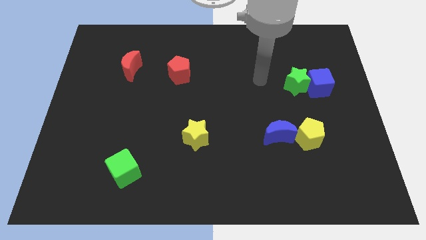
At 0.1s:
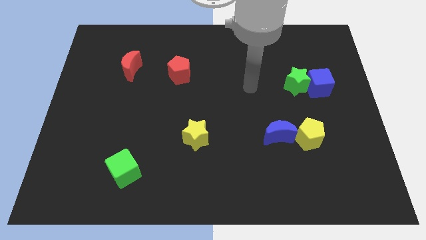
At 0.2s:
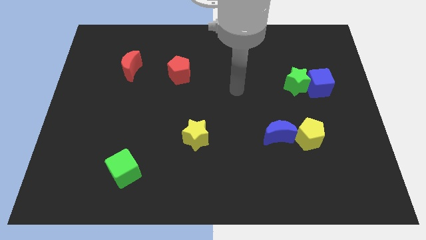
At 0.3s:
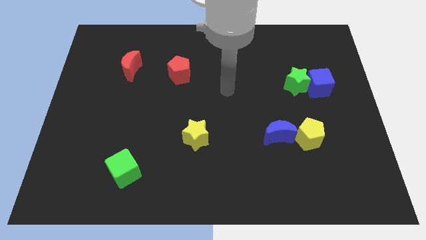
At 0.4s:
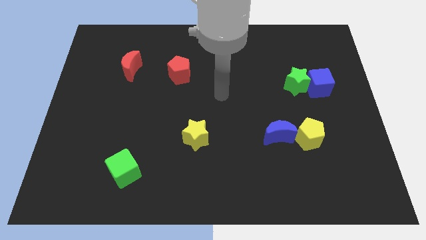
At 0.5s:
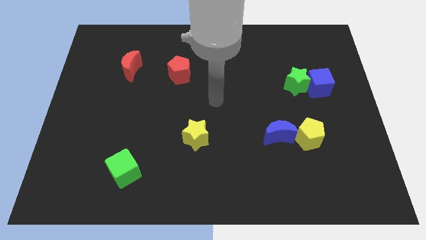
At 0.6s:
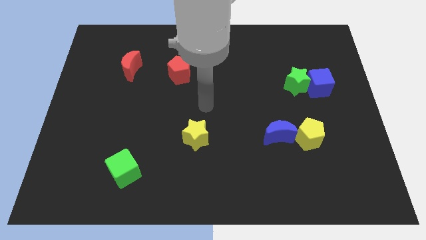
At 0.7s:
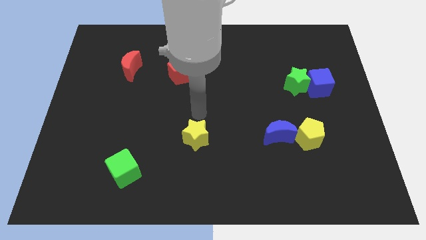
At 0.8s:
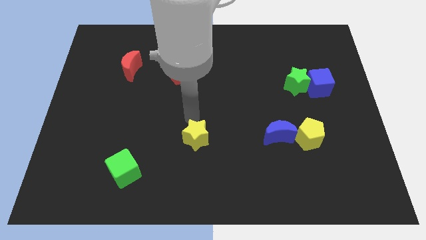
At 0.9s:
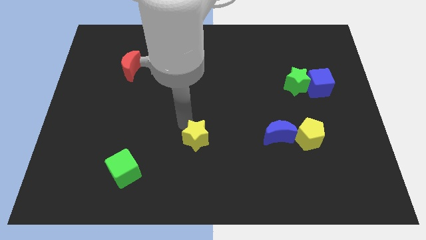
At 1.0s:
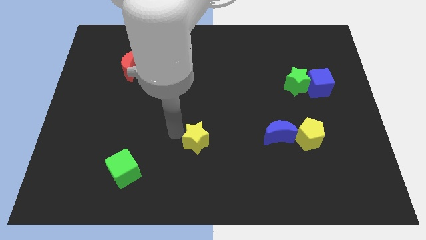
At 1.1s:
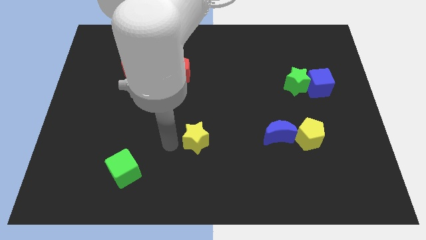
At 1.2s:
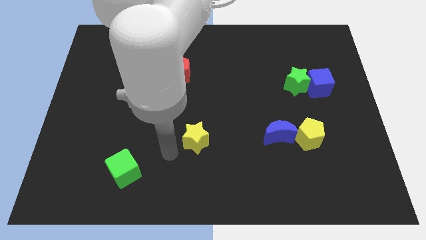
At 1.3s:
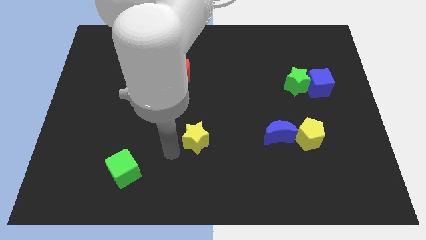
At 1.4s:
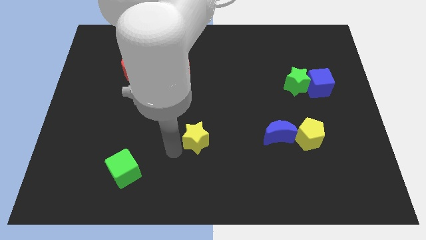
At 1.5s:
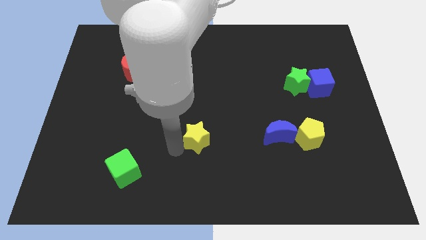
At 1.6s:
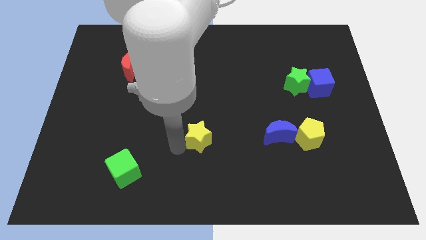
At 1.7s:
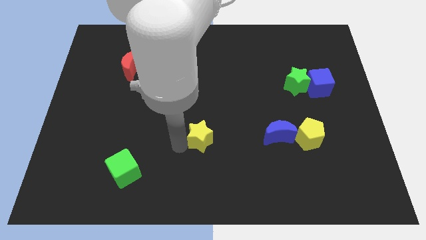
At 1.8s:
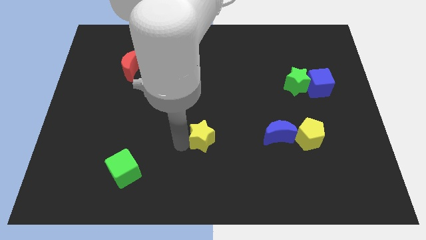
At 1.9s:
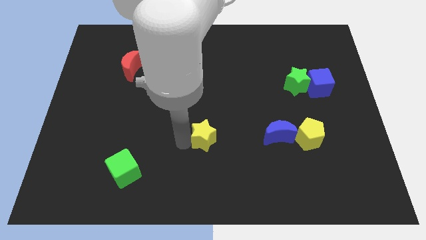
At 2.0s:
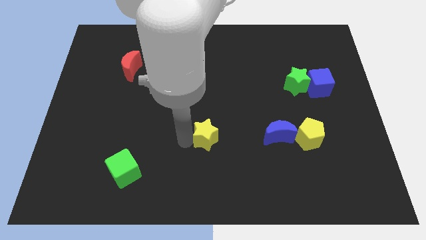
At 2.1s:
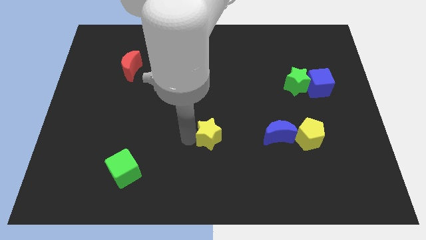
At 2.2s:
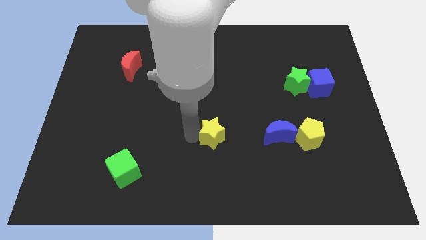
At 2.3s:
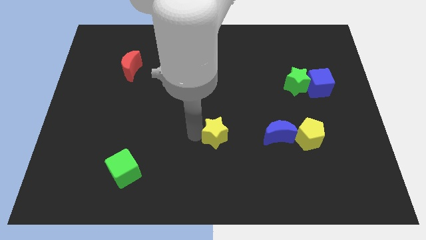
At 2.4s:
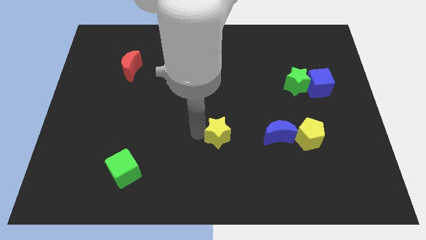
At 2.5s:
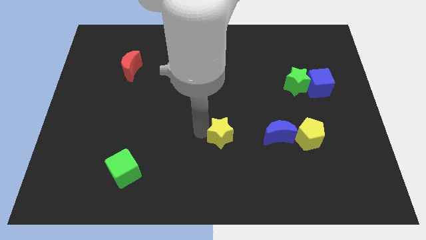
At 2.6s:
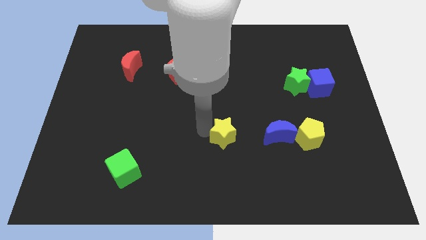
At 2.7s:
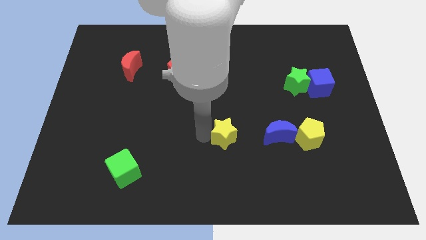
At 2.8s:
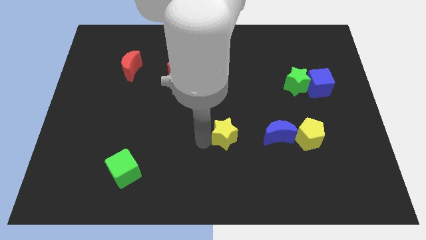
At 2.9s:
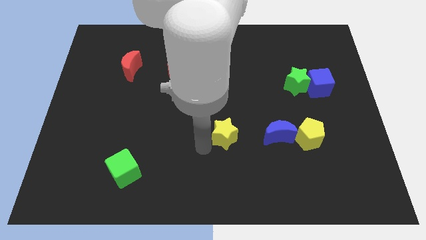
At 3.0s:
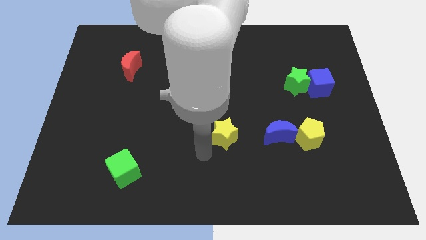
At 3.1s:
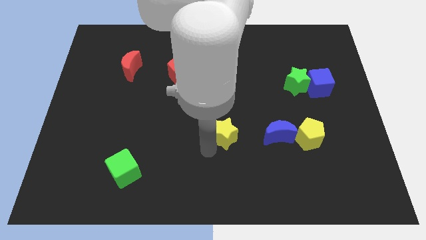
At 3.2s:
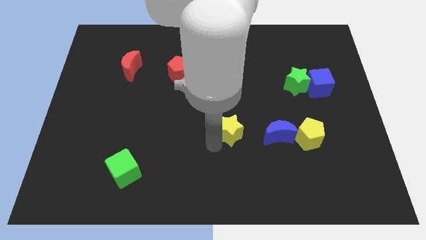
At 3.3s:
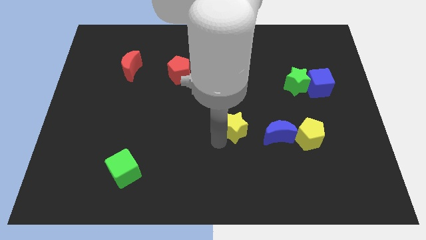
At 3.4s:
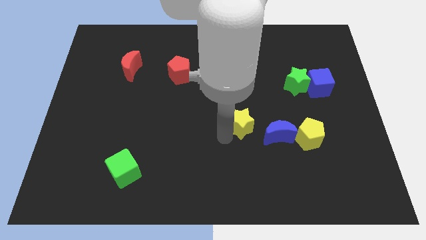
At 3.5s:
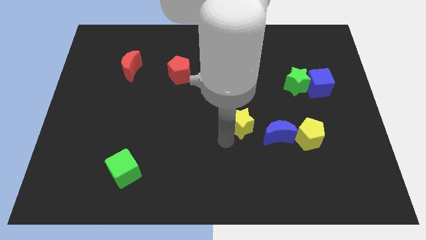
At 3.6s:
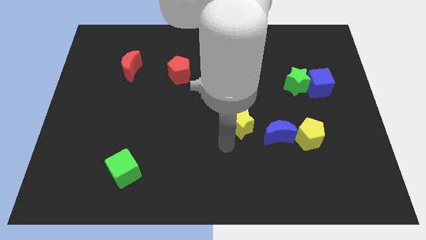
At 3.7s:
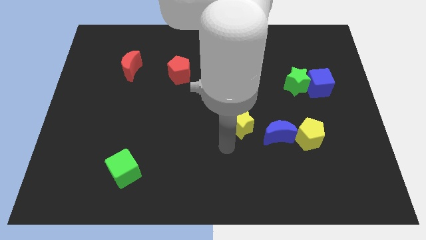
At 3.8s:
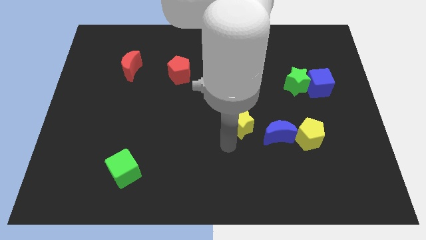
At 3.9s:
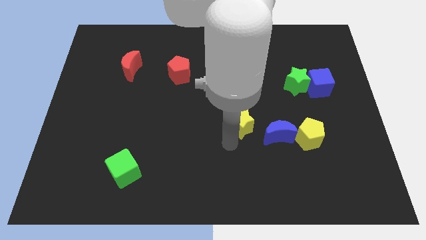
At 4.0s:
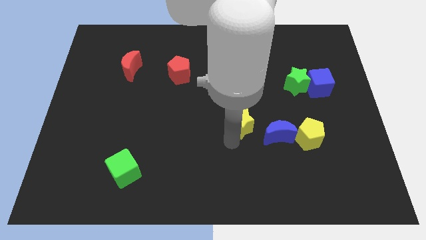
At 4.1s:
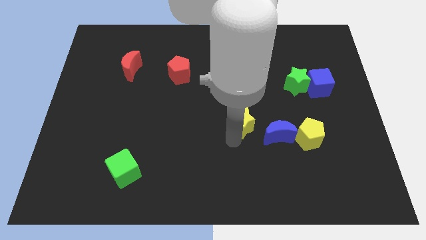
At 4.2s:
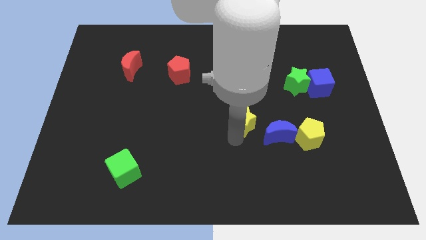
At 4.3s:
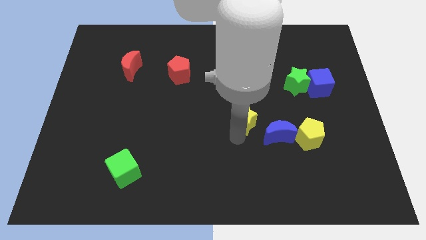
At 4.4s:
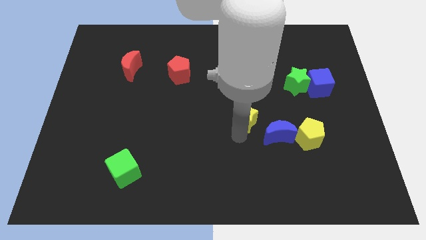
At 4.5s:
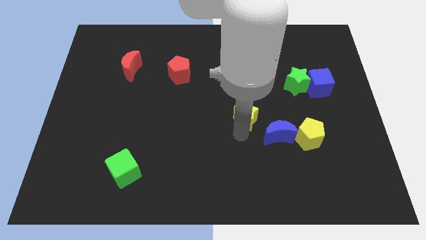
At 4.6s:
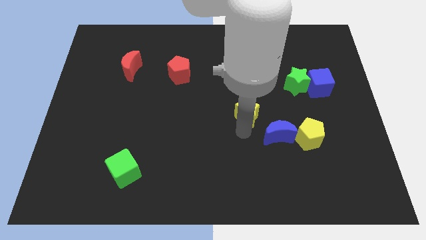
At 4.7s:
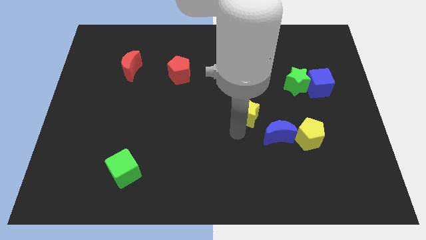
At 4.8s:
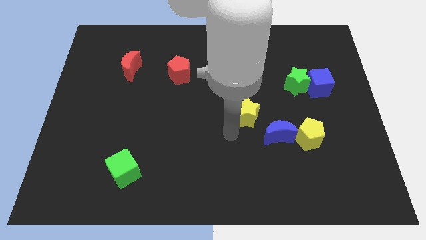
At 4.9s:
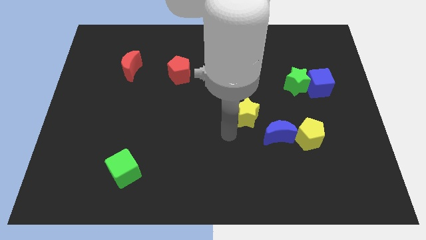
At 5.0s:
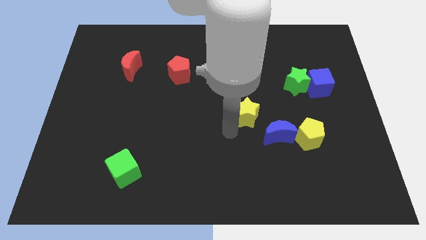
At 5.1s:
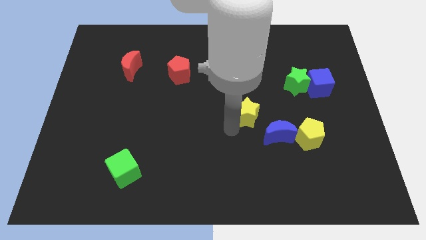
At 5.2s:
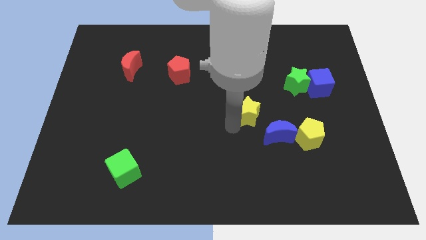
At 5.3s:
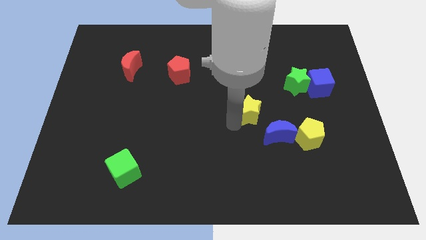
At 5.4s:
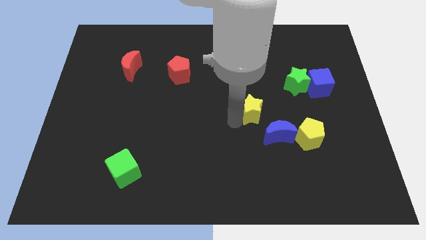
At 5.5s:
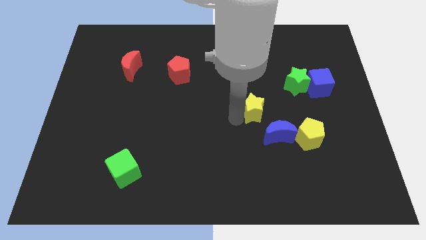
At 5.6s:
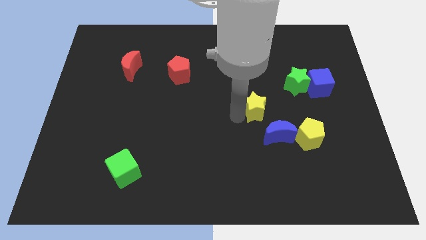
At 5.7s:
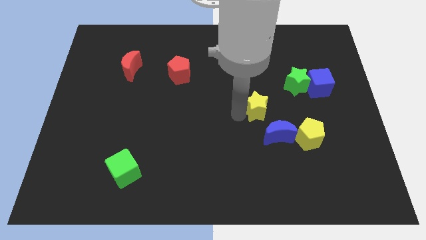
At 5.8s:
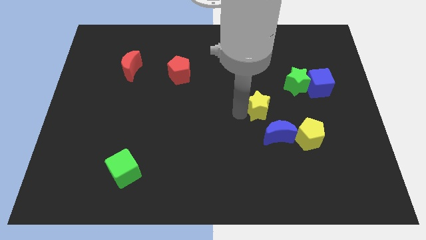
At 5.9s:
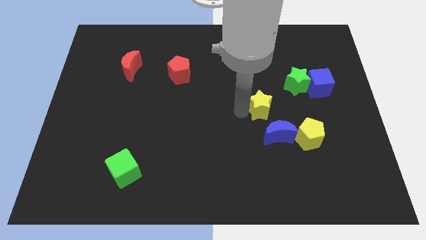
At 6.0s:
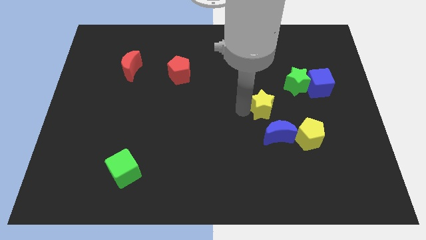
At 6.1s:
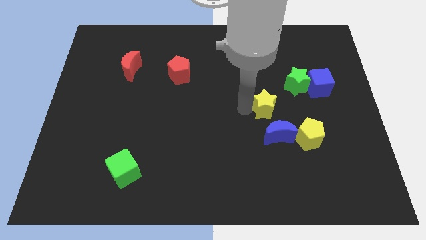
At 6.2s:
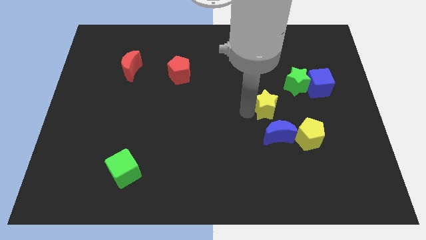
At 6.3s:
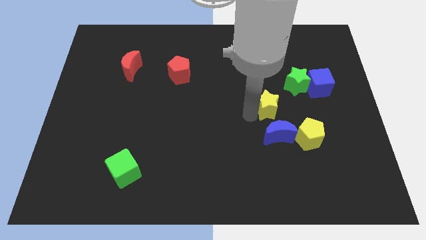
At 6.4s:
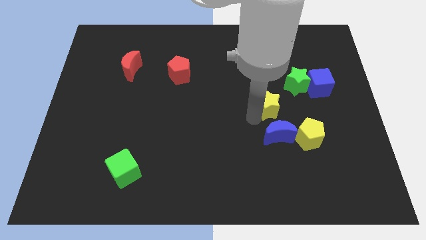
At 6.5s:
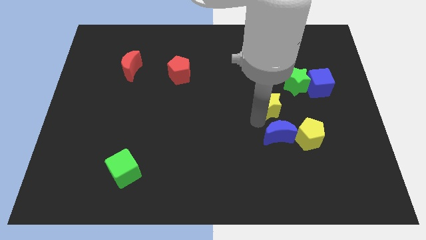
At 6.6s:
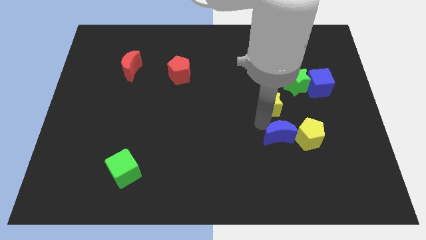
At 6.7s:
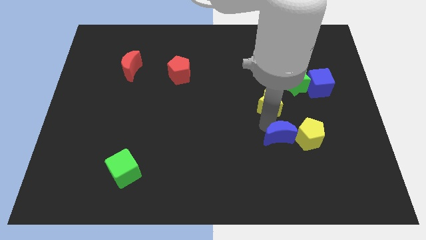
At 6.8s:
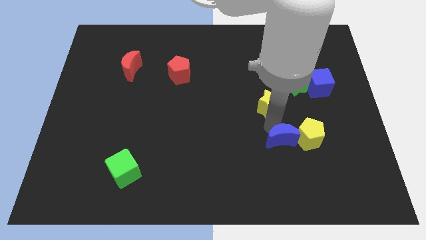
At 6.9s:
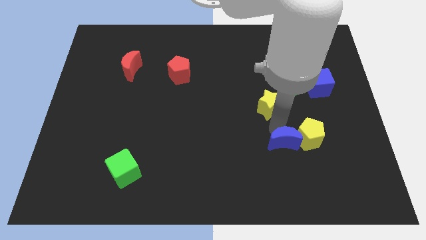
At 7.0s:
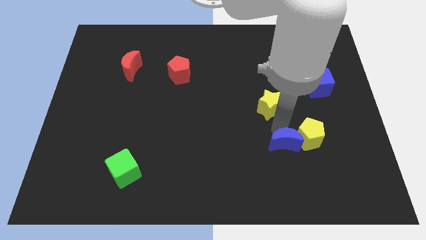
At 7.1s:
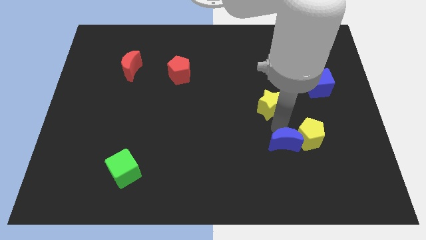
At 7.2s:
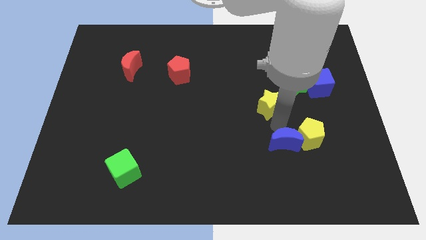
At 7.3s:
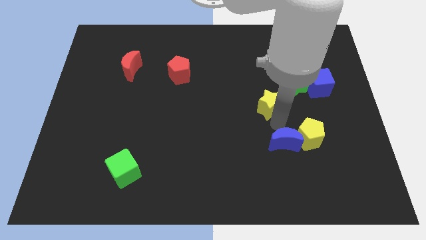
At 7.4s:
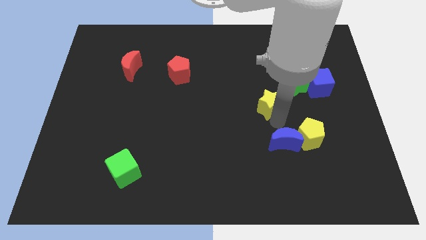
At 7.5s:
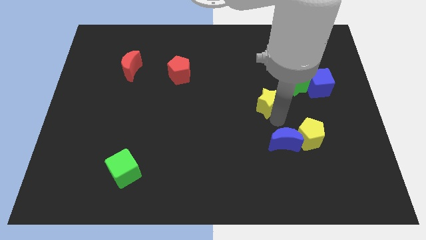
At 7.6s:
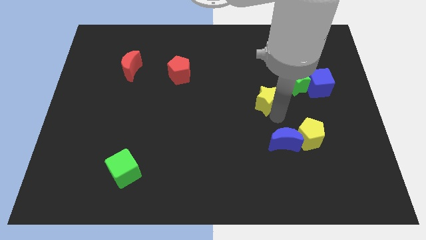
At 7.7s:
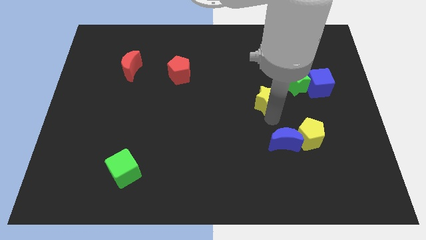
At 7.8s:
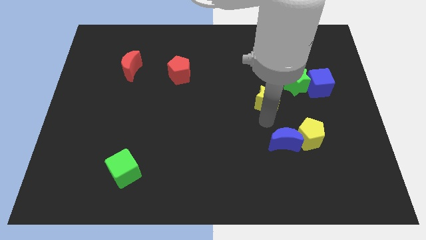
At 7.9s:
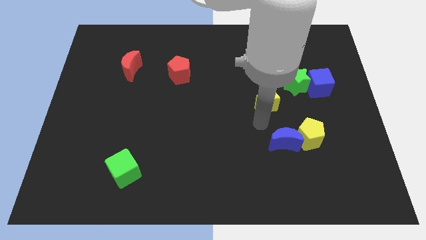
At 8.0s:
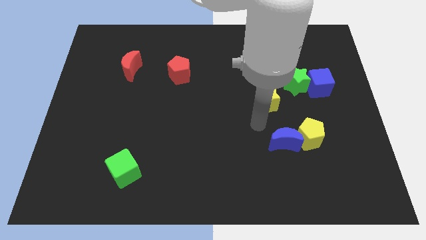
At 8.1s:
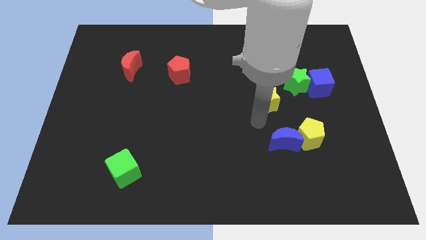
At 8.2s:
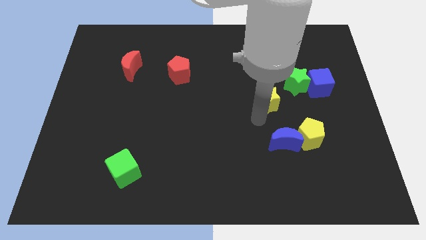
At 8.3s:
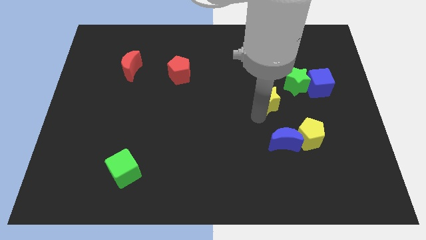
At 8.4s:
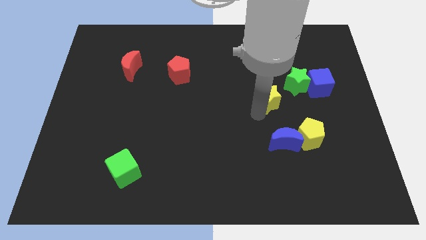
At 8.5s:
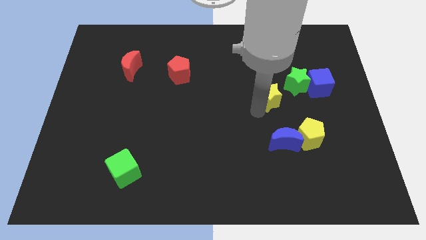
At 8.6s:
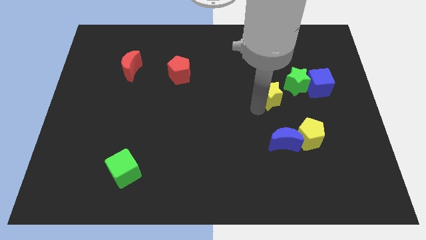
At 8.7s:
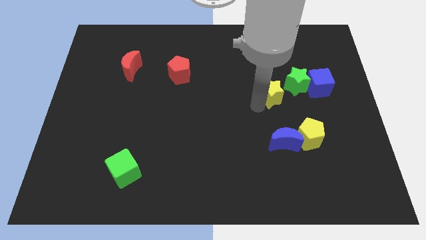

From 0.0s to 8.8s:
slide the yellow star up and then to the right
